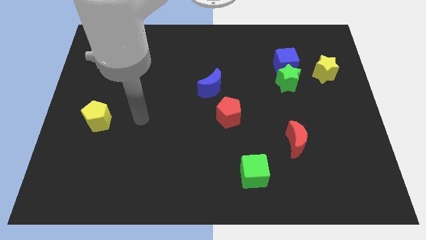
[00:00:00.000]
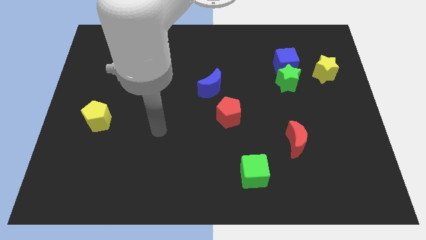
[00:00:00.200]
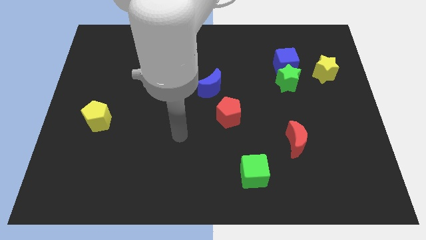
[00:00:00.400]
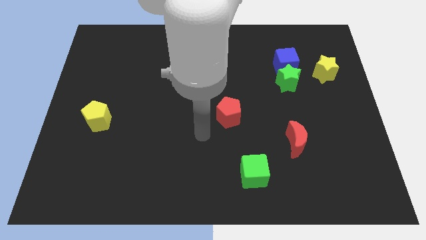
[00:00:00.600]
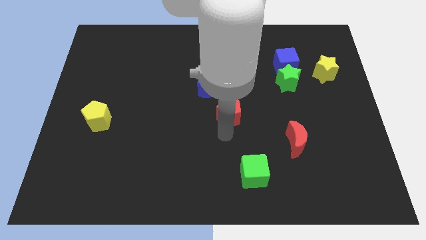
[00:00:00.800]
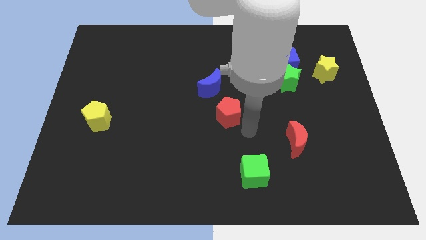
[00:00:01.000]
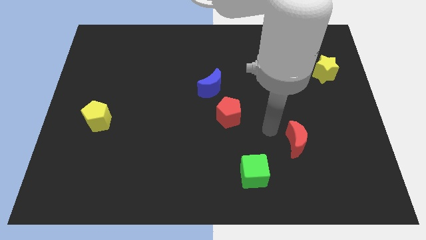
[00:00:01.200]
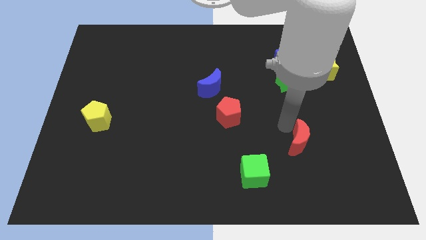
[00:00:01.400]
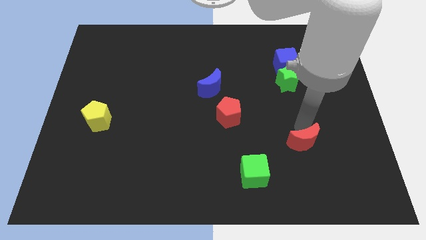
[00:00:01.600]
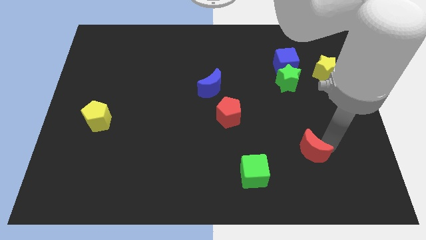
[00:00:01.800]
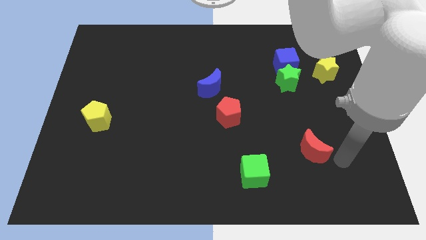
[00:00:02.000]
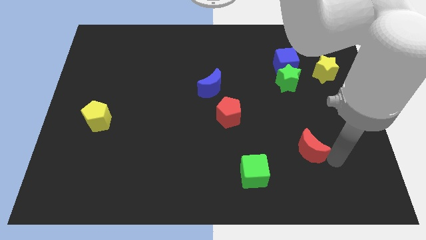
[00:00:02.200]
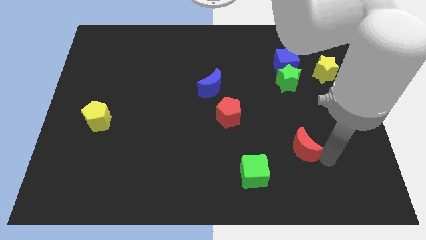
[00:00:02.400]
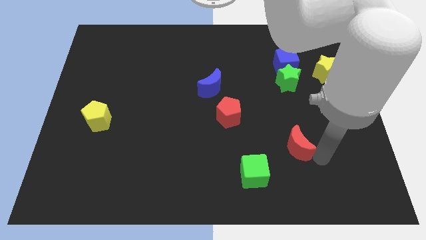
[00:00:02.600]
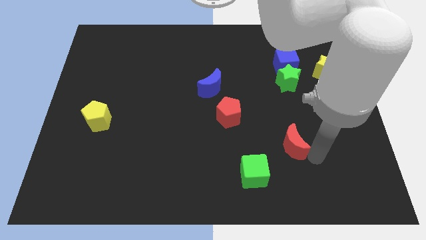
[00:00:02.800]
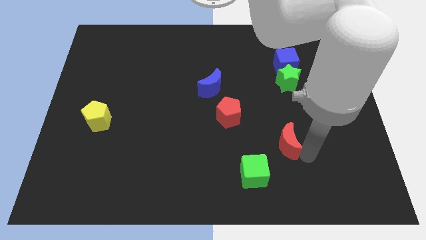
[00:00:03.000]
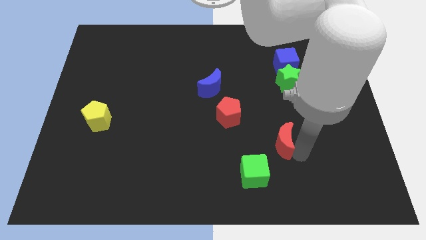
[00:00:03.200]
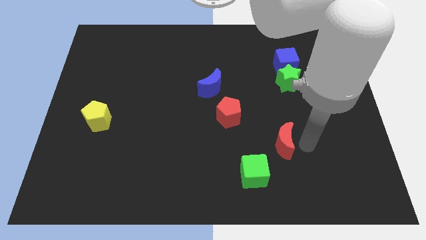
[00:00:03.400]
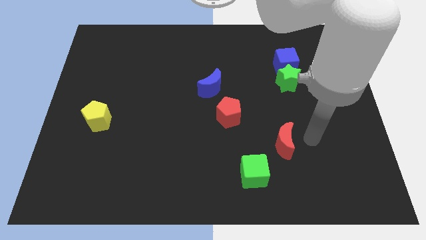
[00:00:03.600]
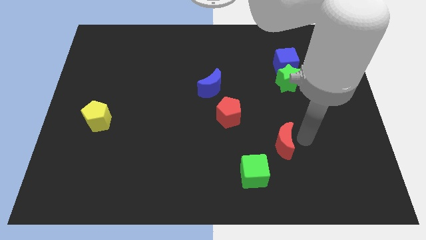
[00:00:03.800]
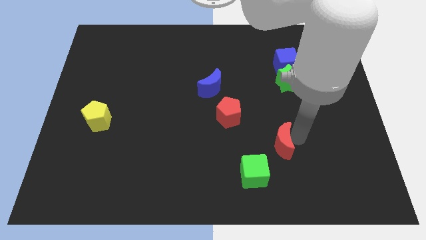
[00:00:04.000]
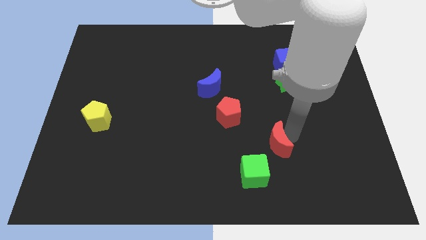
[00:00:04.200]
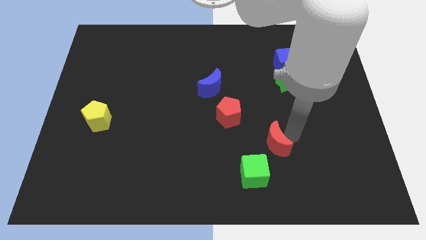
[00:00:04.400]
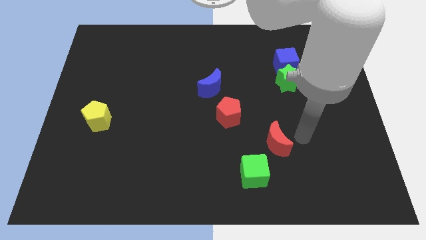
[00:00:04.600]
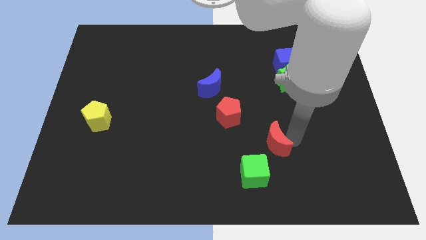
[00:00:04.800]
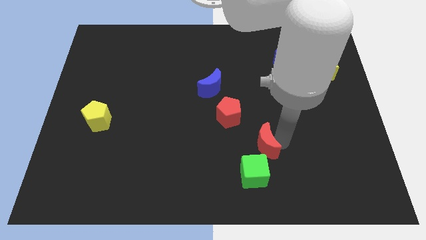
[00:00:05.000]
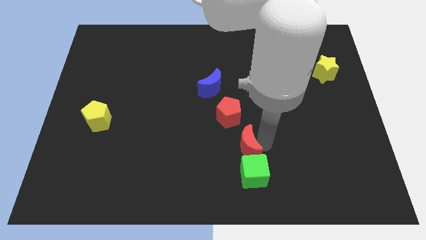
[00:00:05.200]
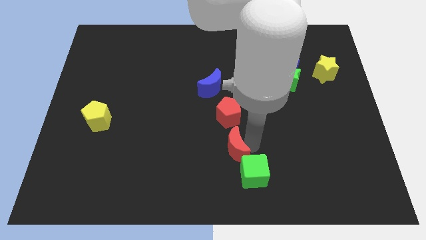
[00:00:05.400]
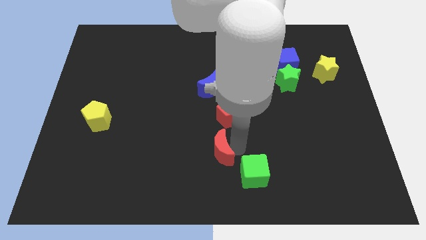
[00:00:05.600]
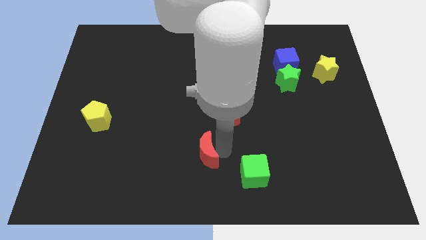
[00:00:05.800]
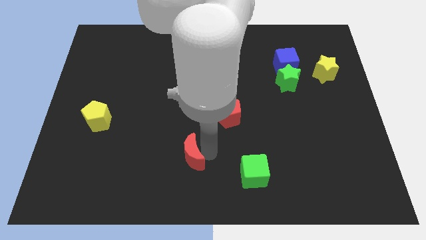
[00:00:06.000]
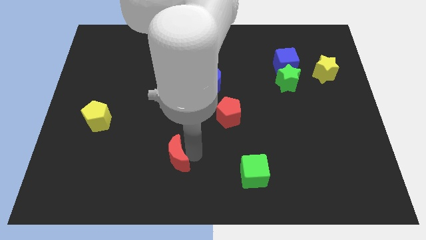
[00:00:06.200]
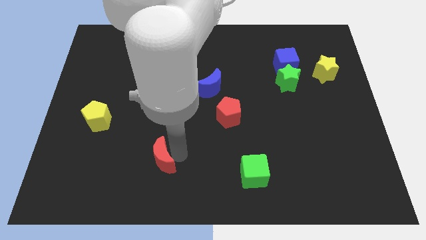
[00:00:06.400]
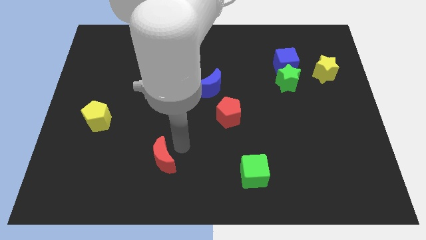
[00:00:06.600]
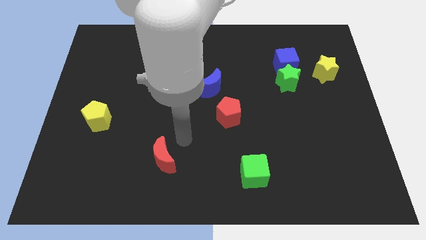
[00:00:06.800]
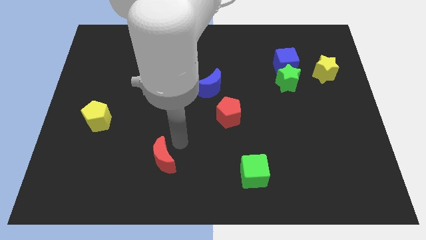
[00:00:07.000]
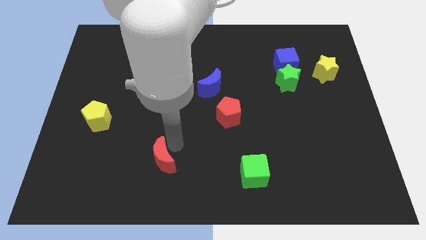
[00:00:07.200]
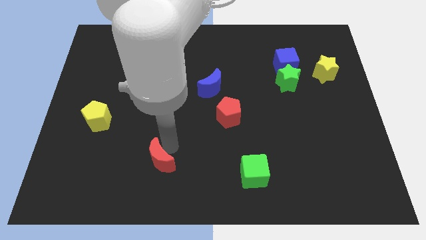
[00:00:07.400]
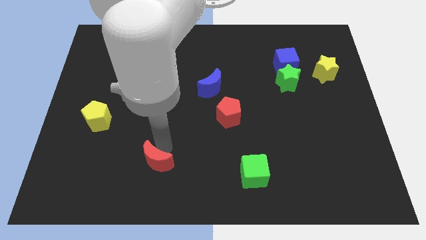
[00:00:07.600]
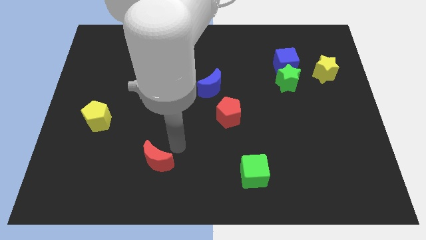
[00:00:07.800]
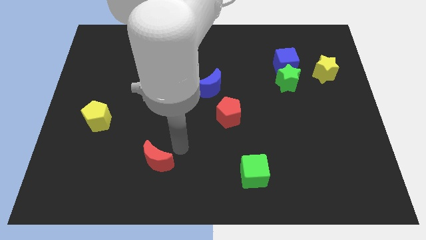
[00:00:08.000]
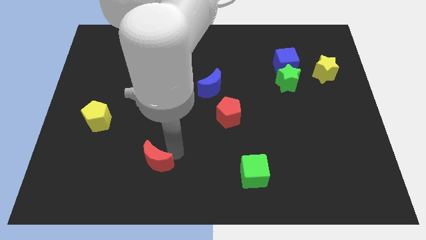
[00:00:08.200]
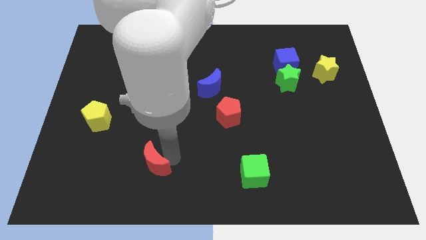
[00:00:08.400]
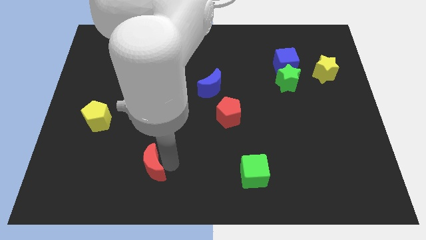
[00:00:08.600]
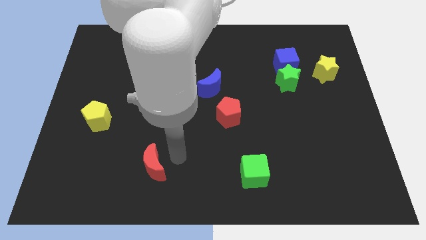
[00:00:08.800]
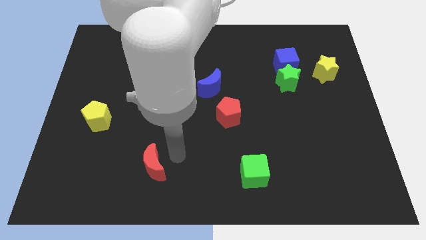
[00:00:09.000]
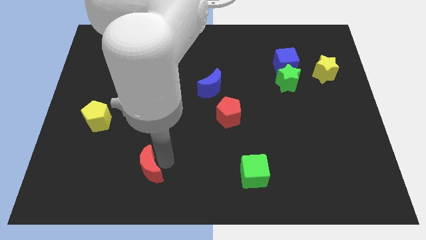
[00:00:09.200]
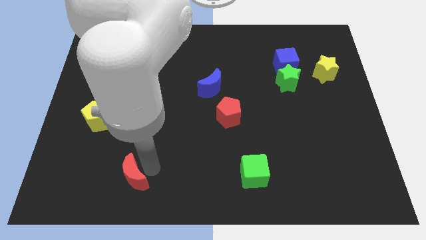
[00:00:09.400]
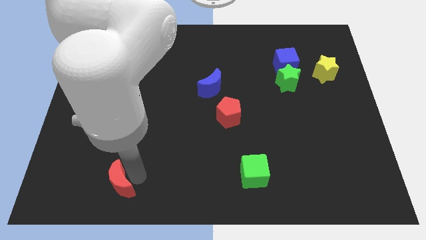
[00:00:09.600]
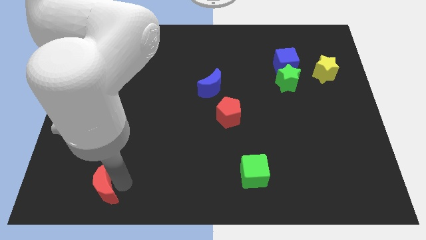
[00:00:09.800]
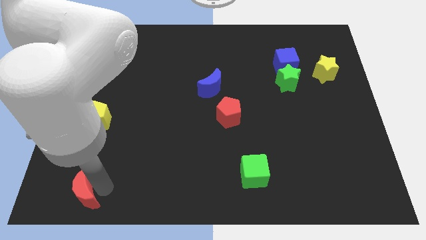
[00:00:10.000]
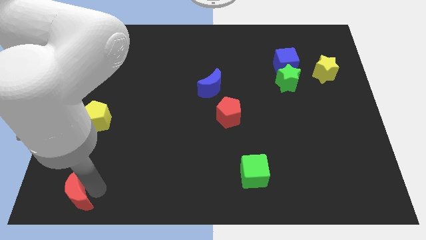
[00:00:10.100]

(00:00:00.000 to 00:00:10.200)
move the red moon to the bottom left of the board
